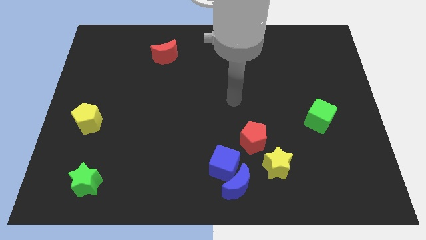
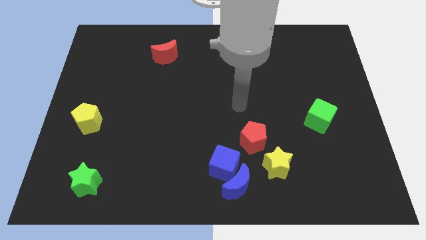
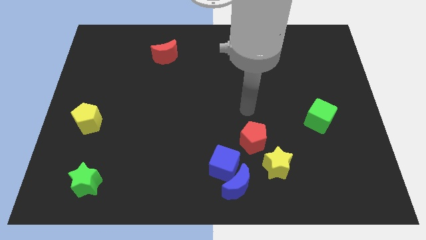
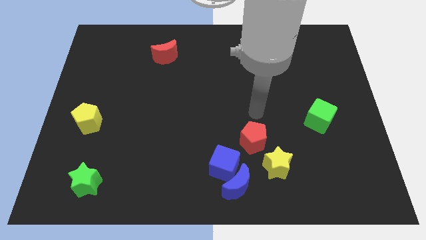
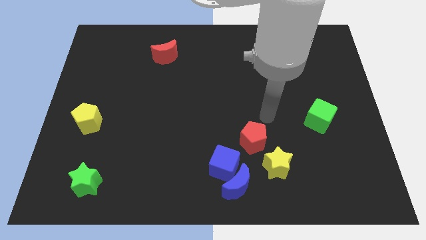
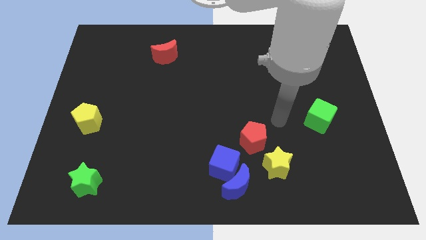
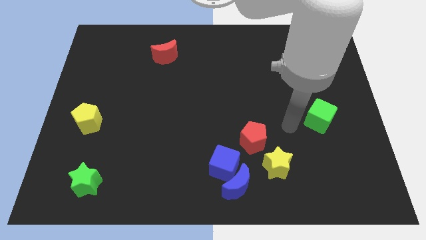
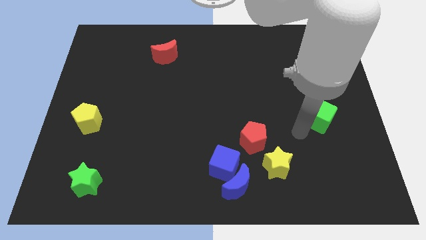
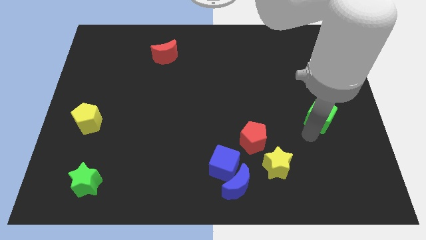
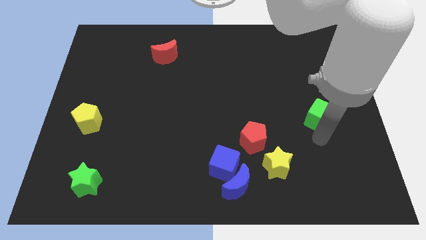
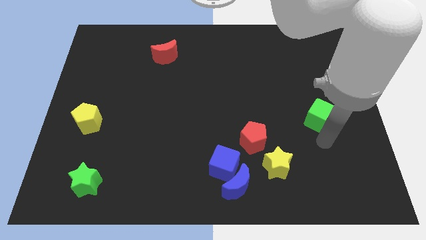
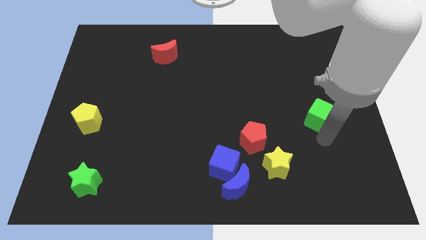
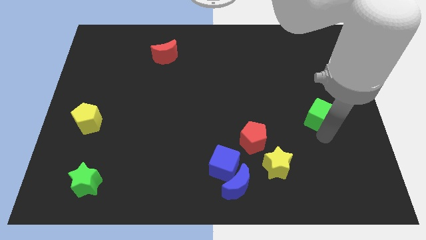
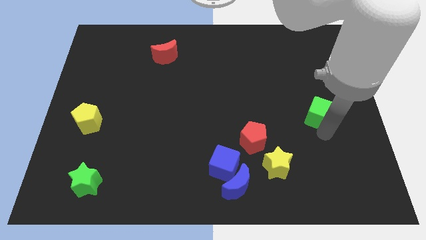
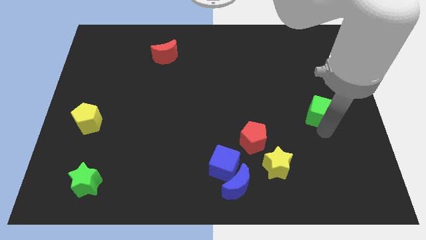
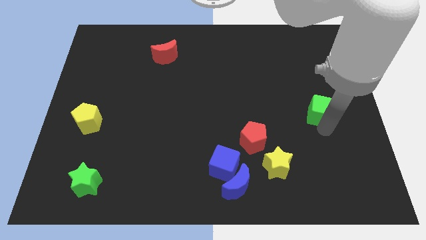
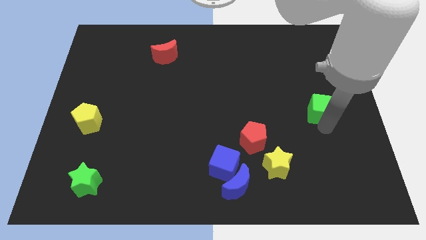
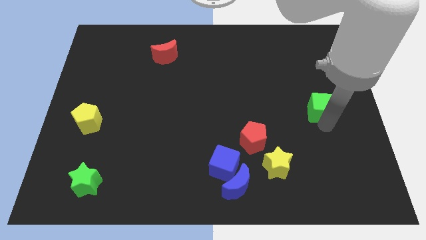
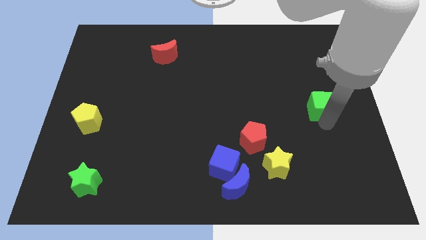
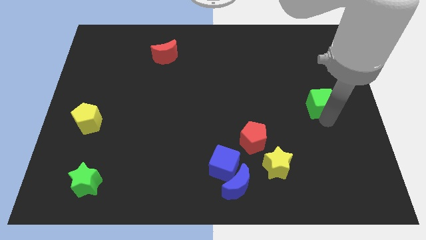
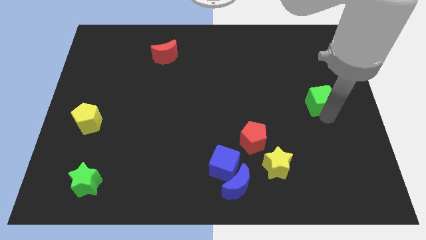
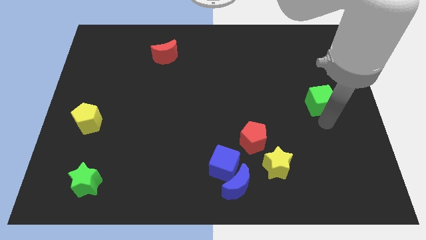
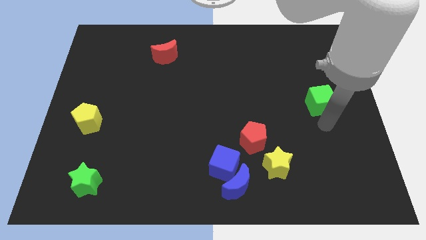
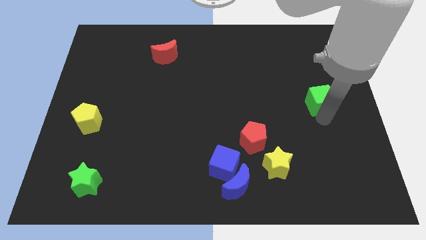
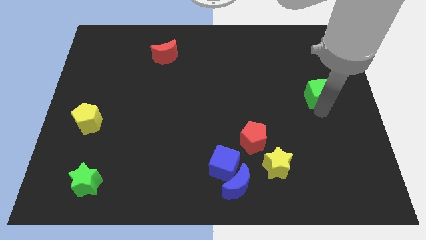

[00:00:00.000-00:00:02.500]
slightly push the green cube upwards

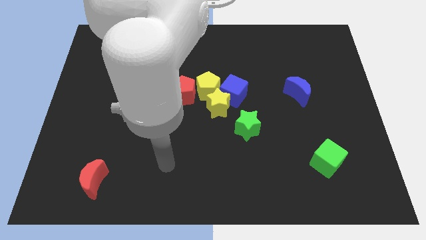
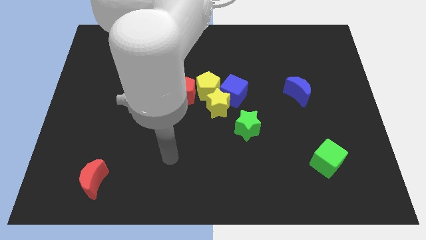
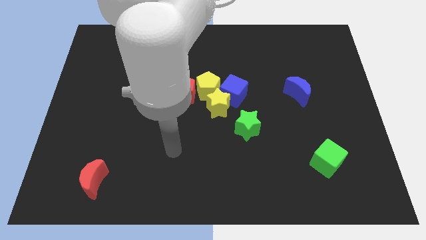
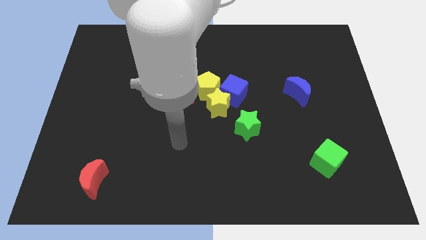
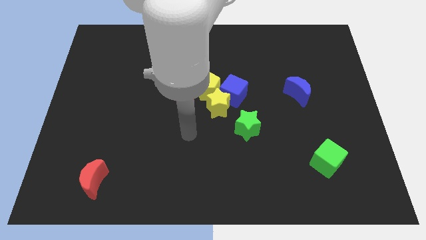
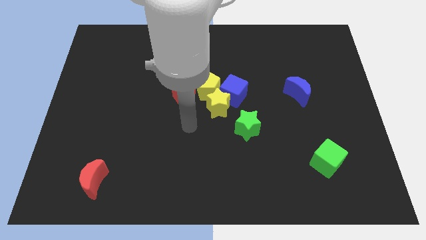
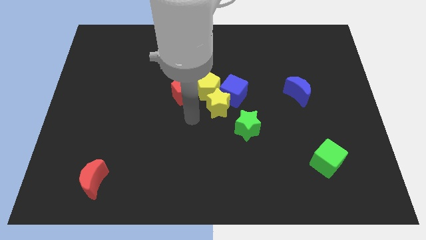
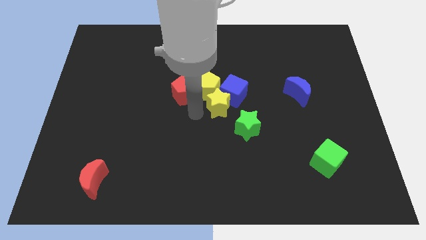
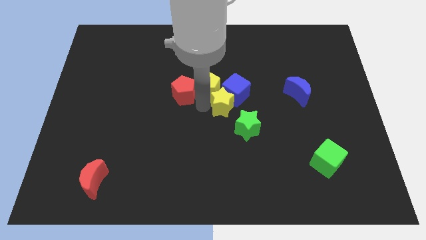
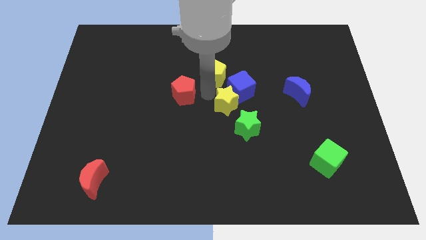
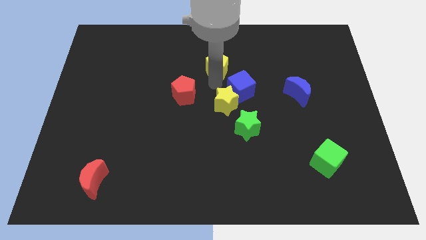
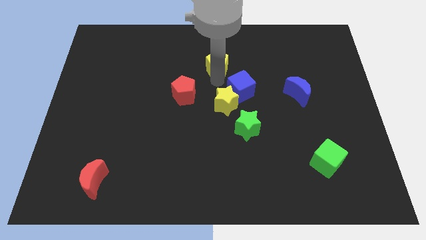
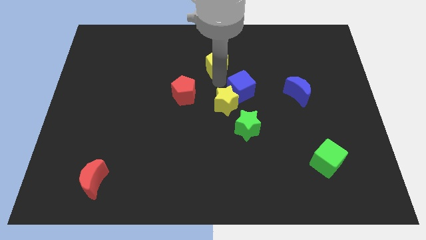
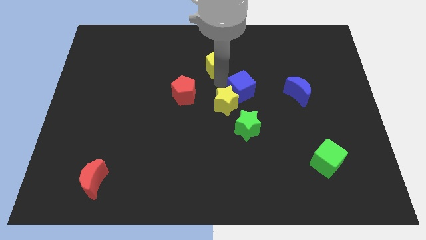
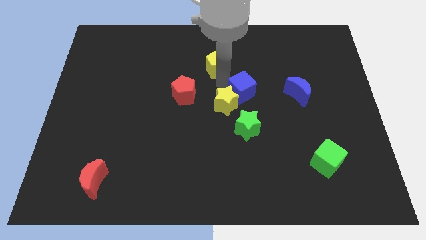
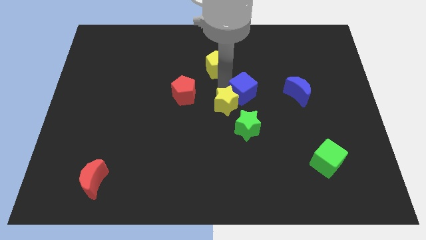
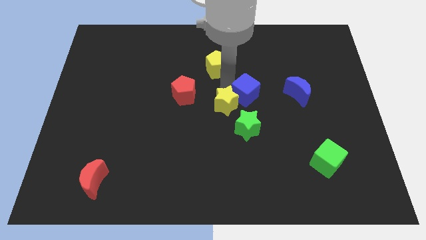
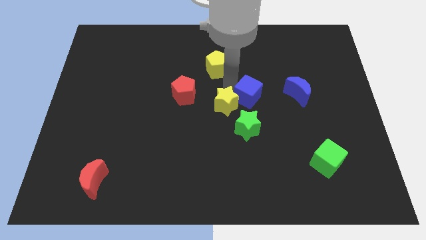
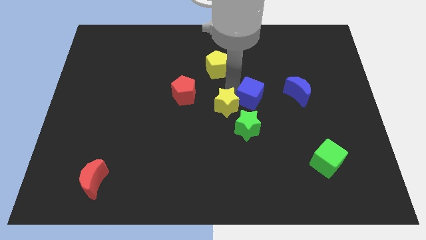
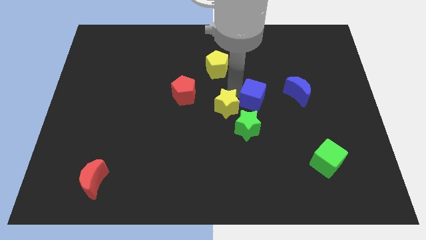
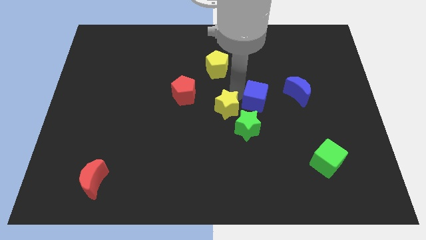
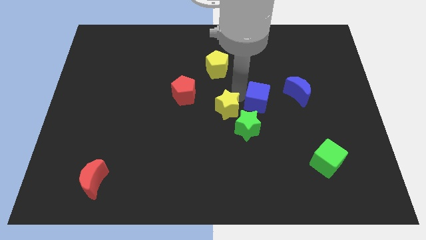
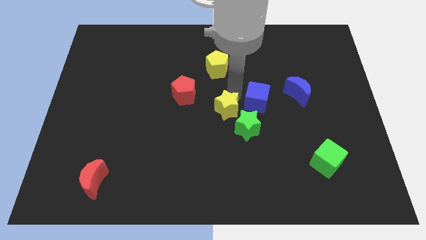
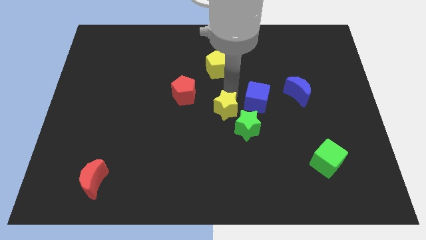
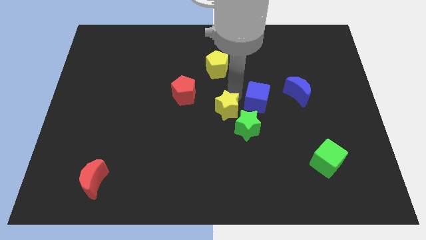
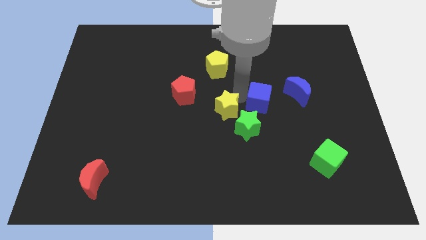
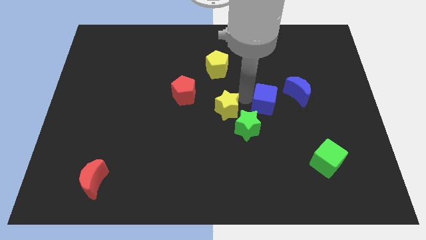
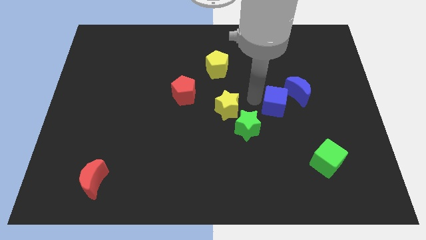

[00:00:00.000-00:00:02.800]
move the blue cube a bit downwards and then right

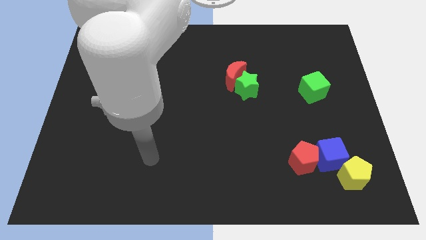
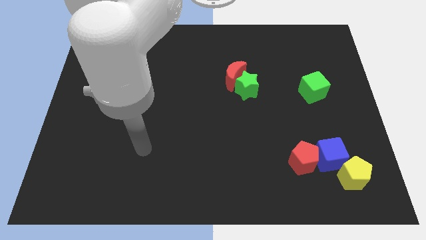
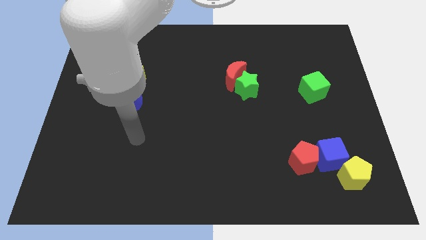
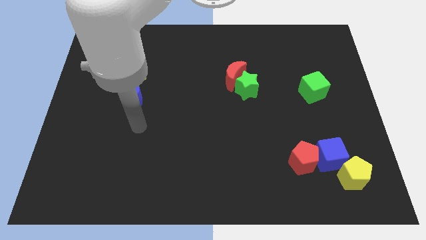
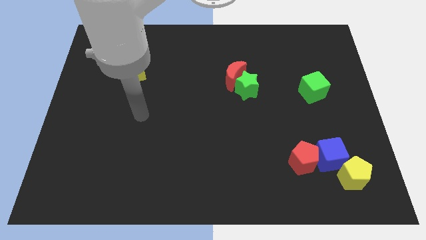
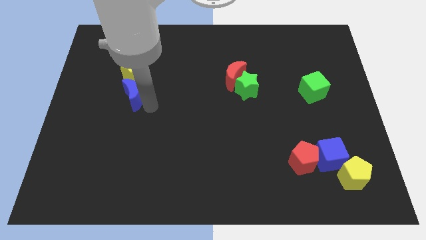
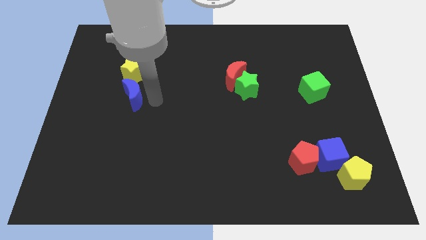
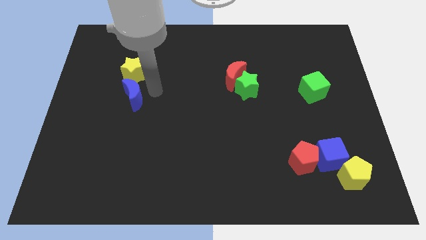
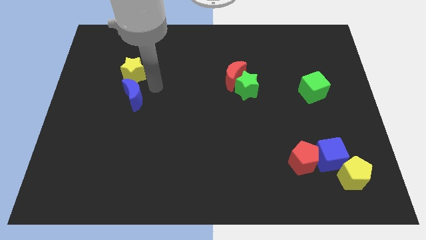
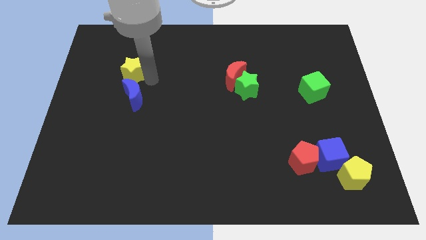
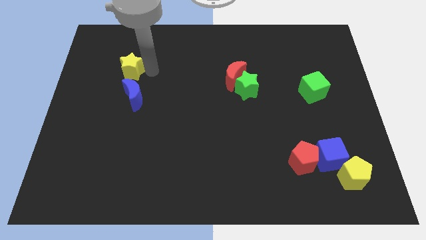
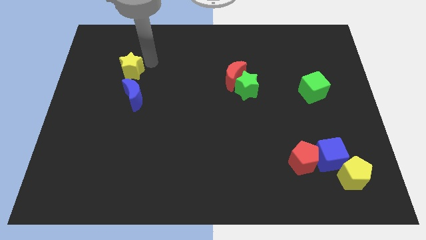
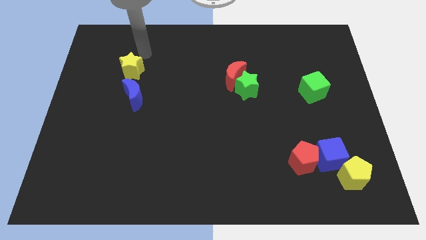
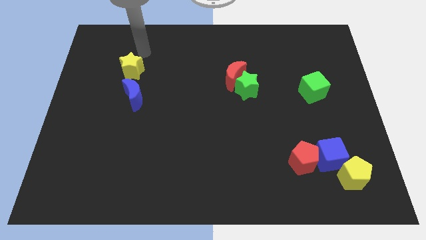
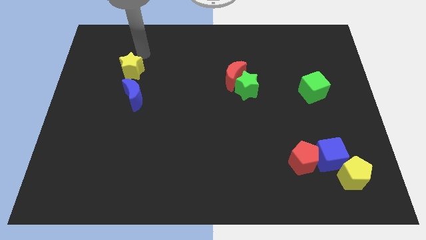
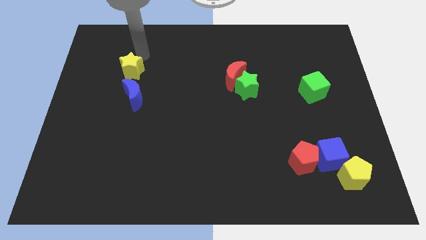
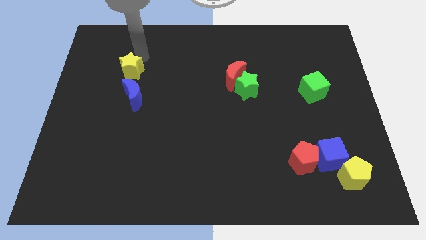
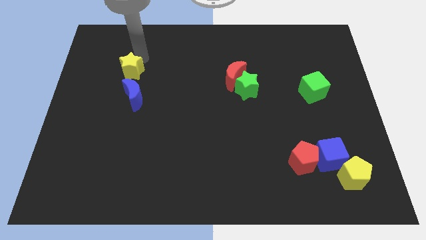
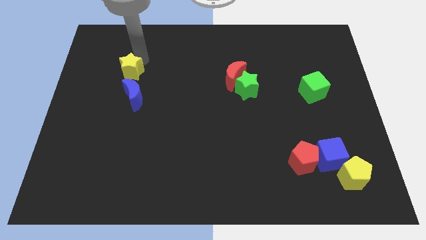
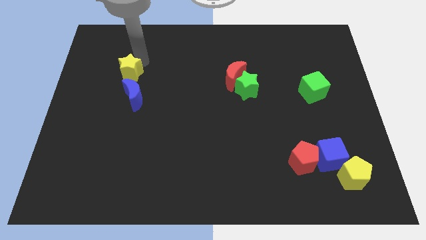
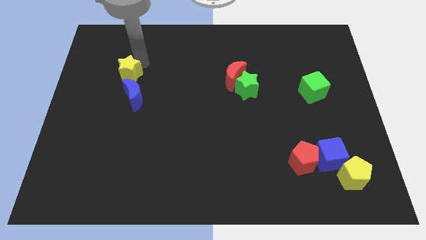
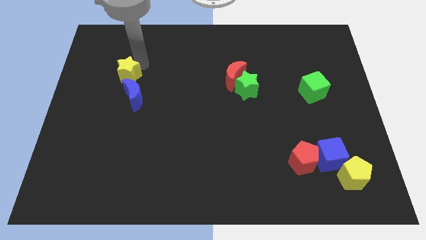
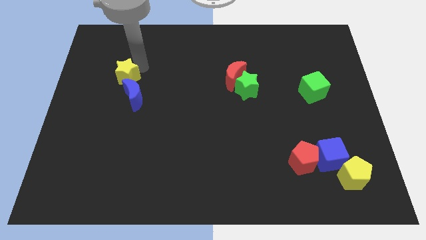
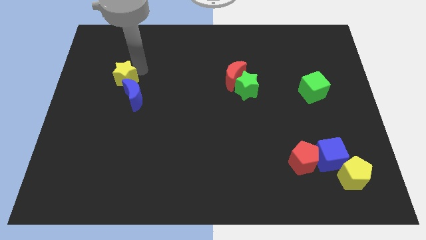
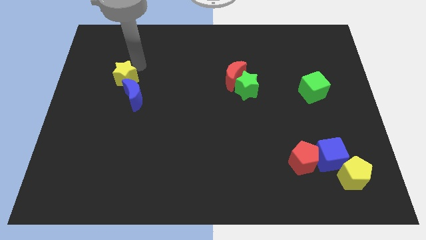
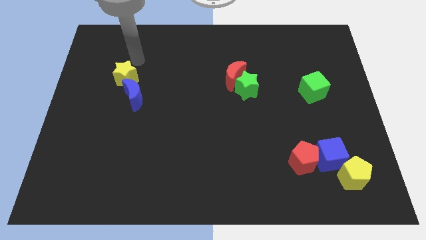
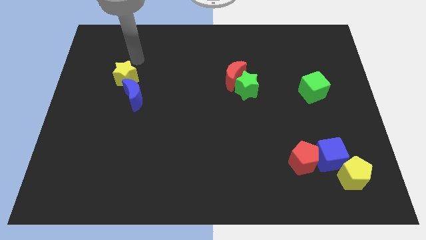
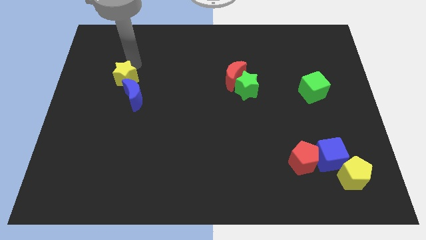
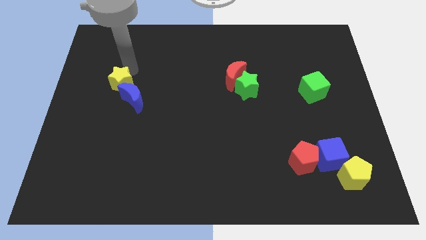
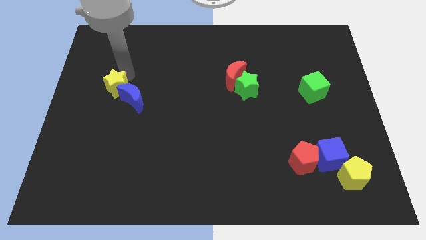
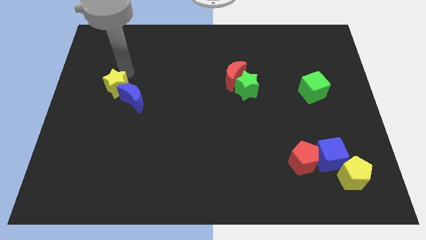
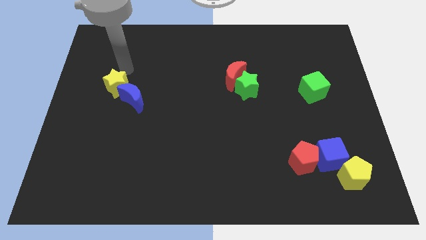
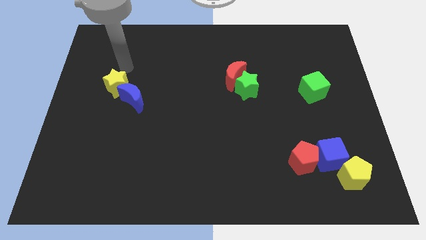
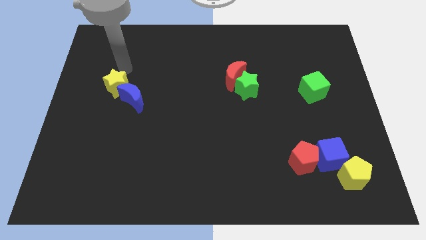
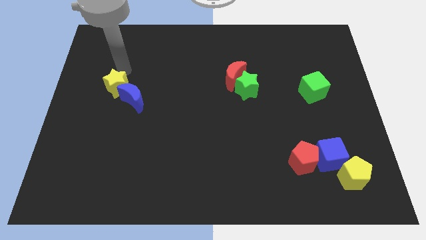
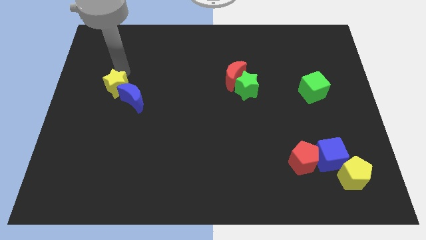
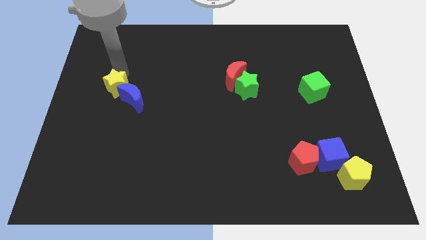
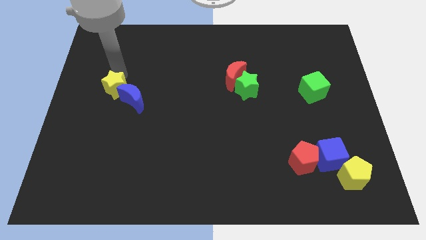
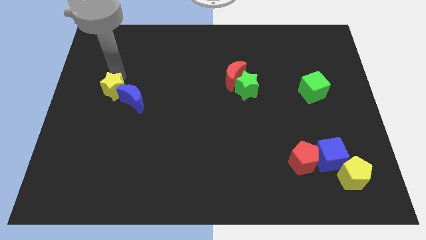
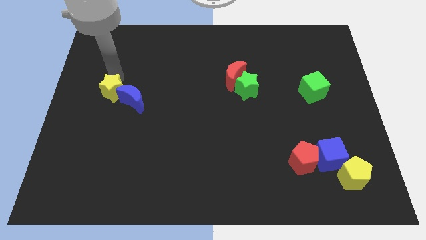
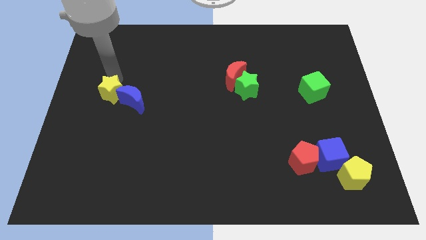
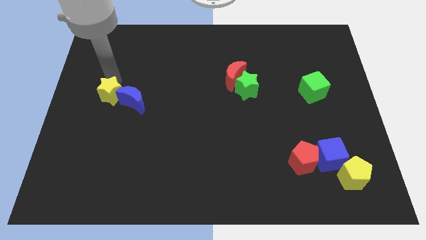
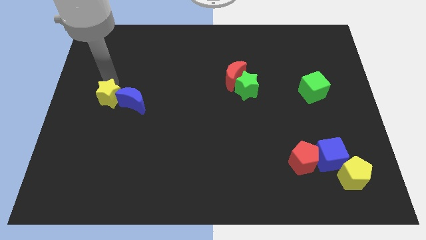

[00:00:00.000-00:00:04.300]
move the yellow star slightly down
